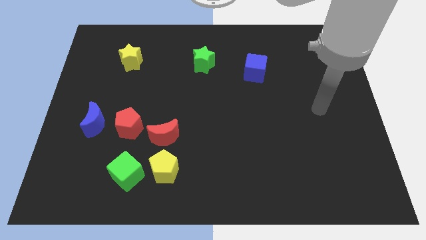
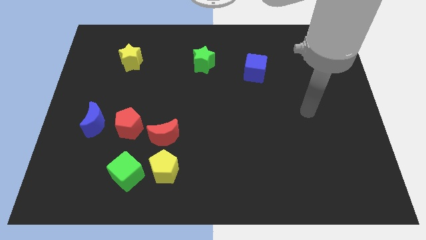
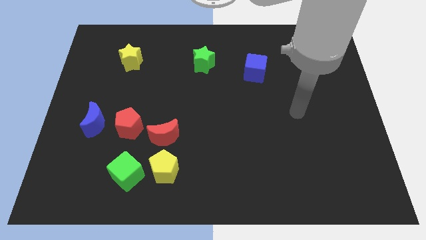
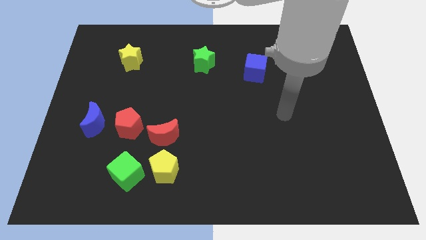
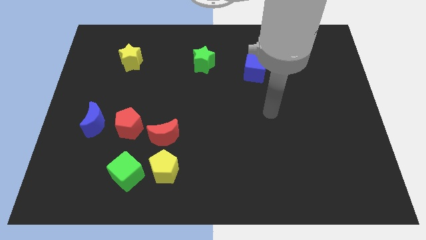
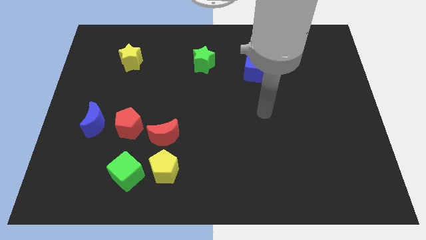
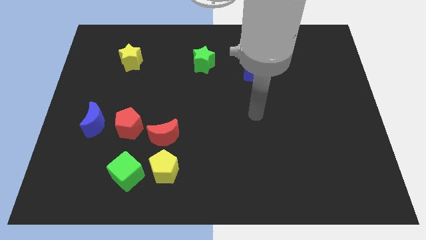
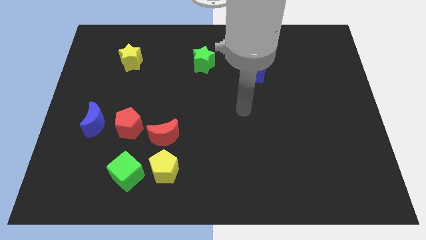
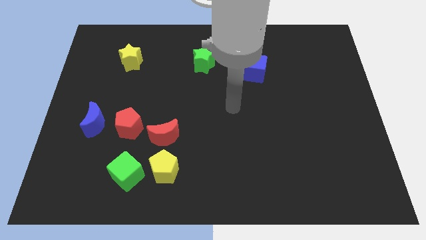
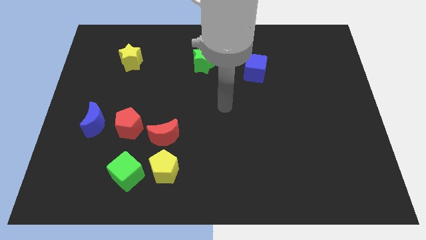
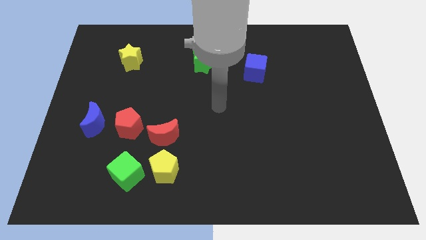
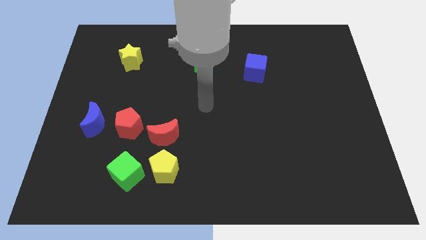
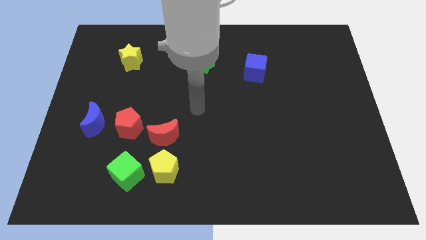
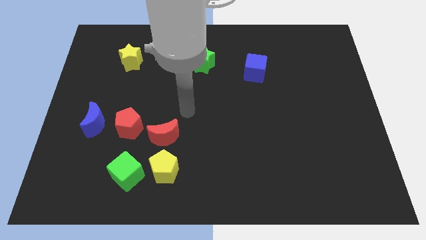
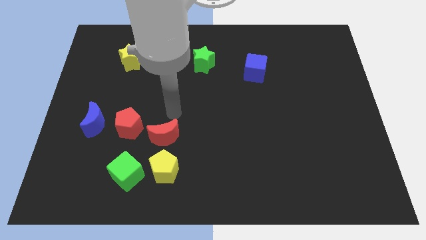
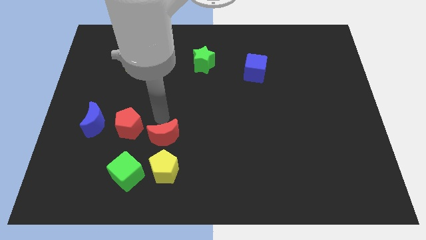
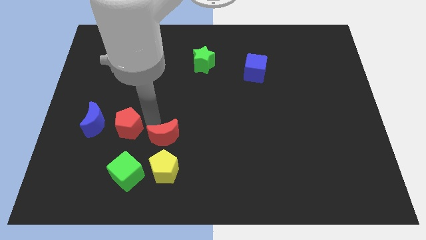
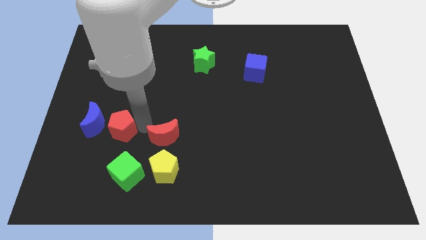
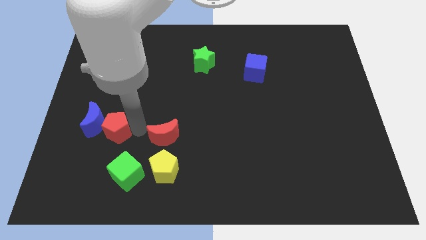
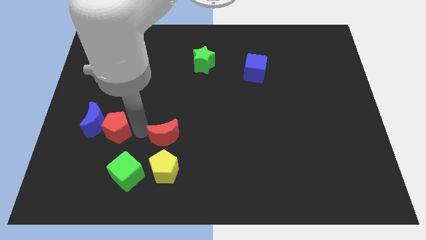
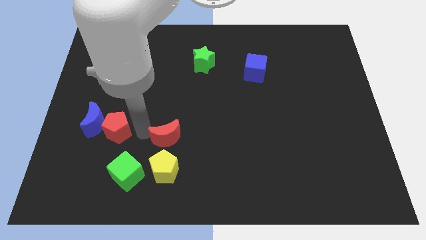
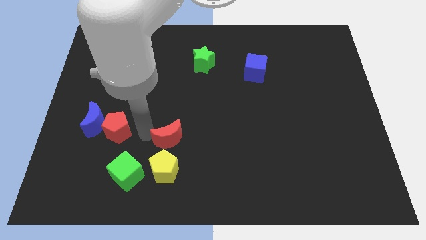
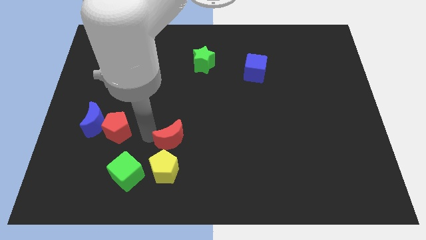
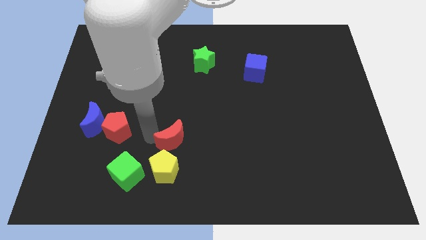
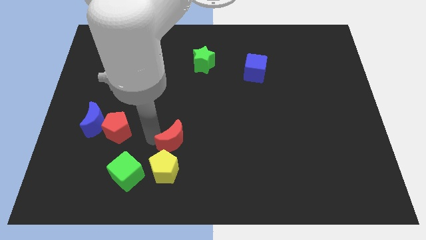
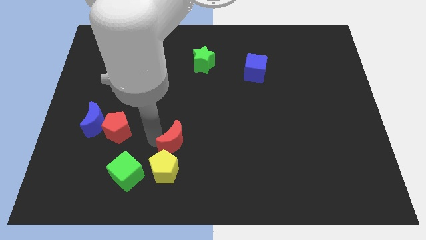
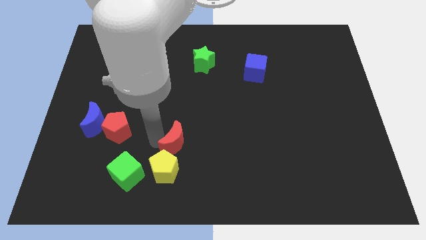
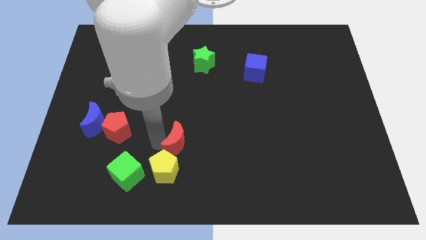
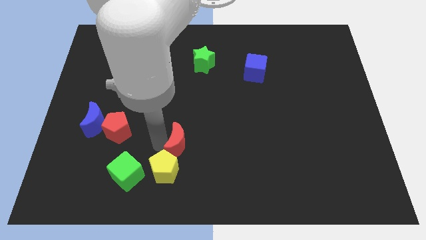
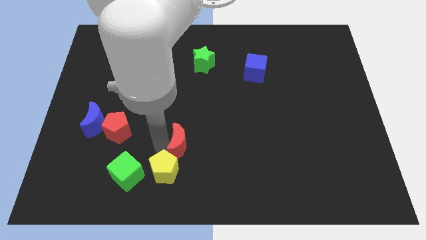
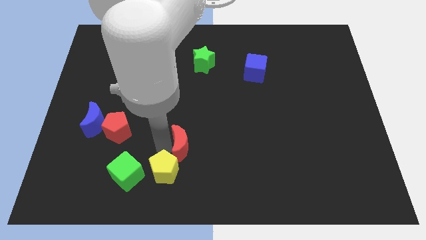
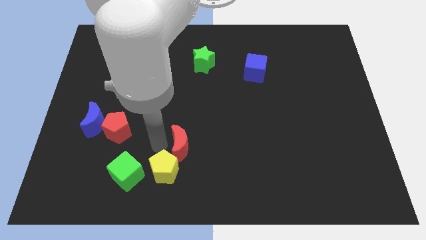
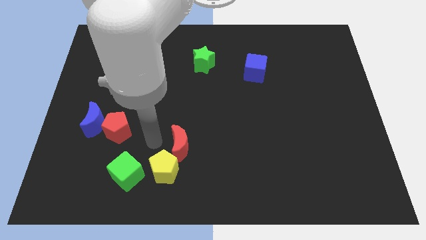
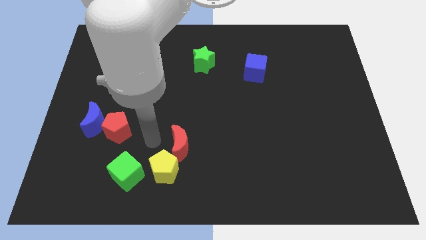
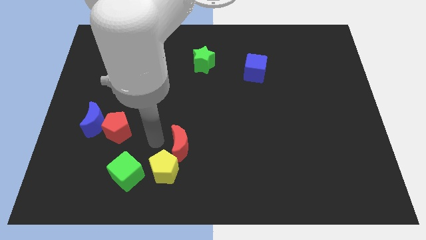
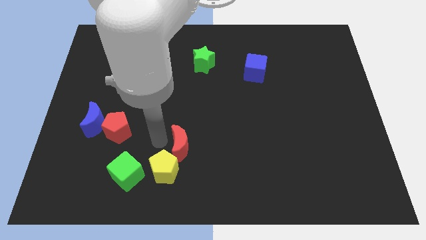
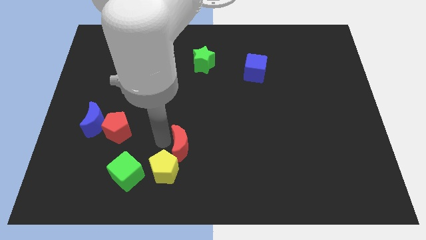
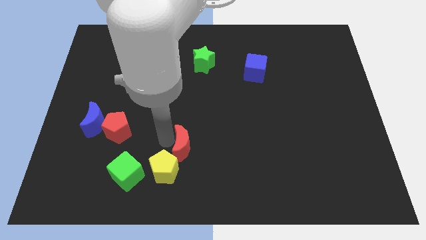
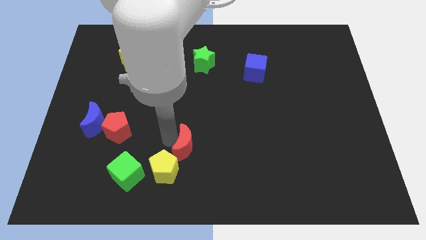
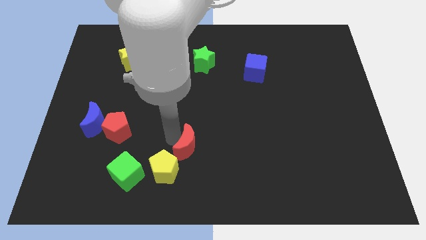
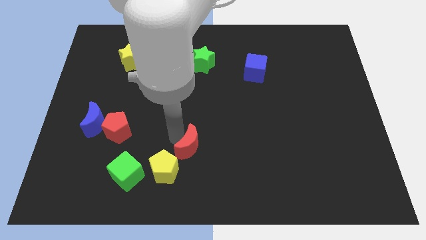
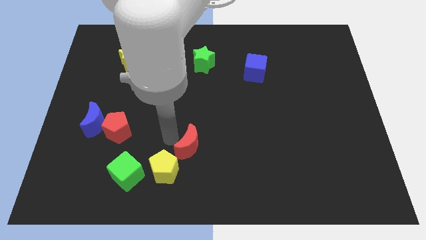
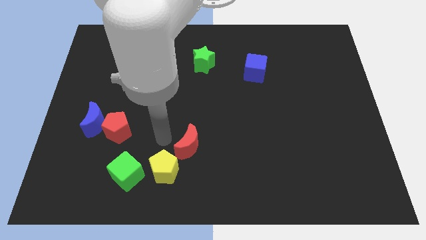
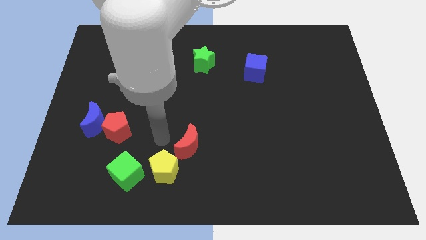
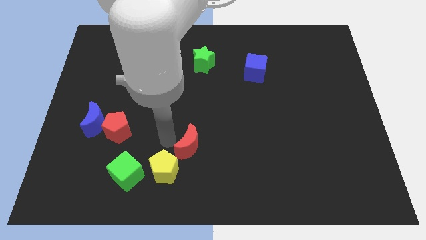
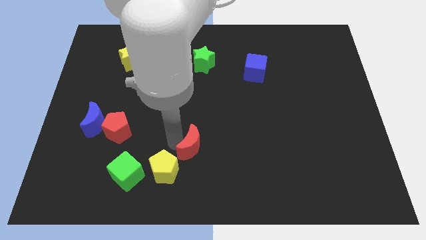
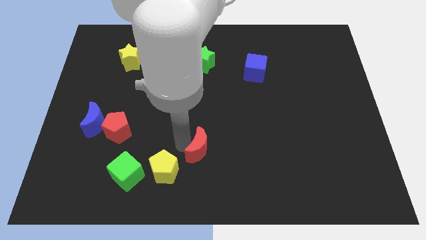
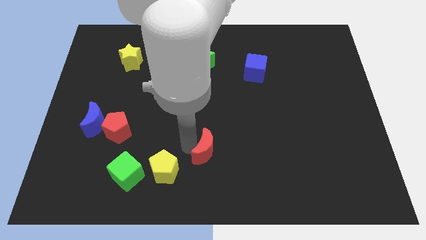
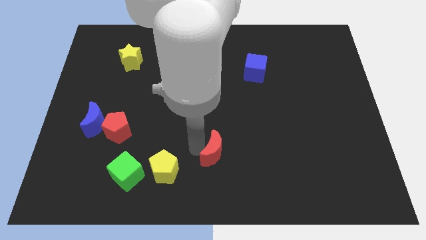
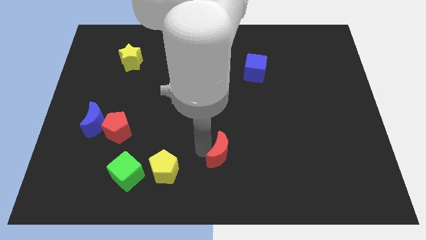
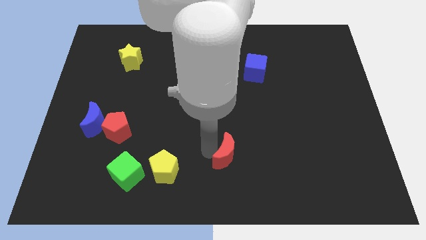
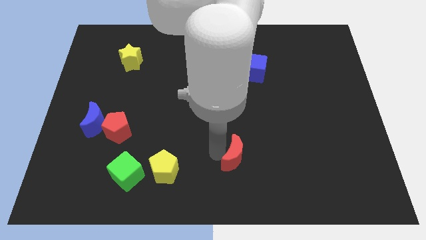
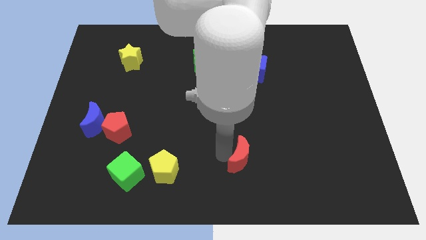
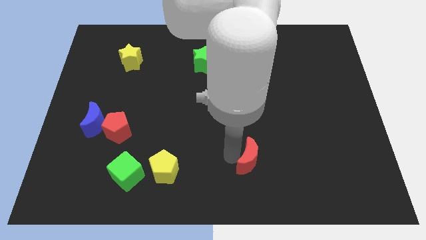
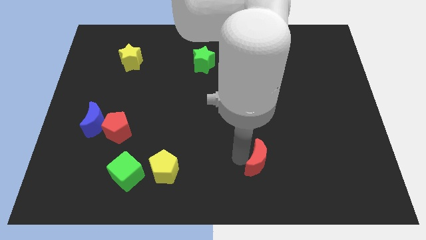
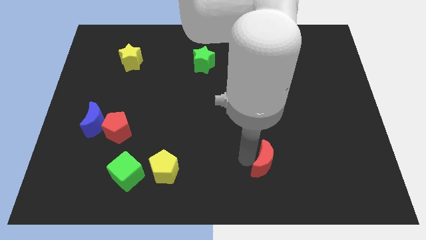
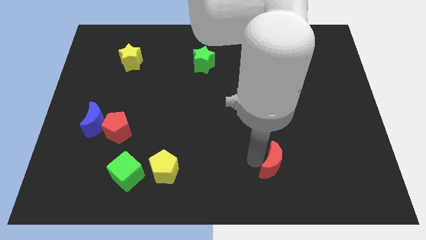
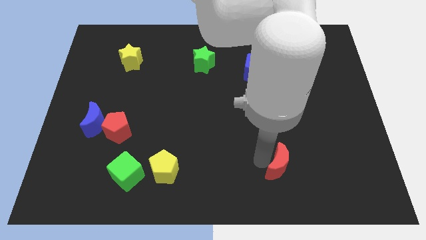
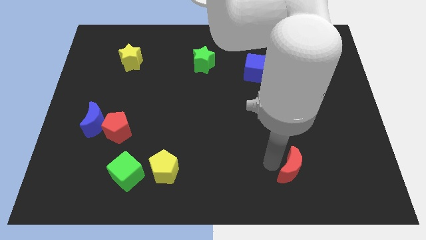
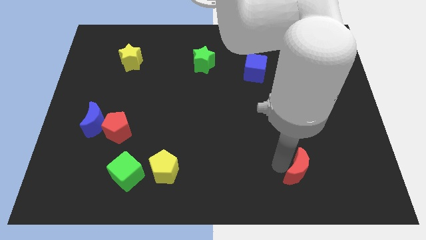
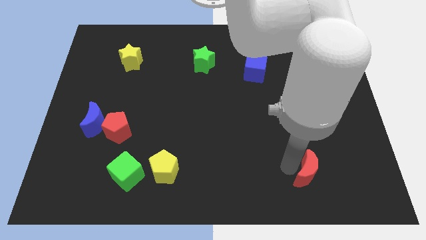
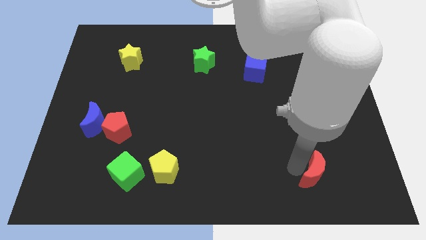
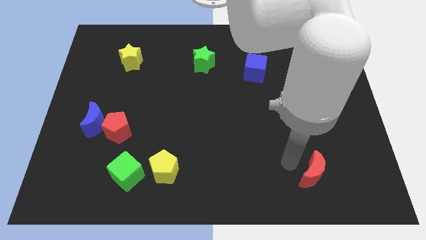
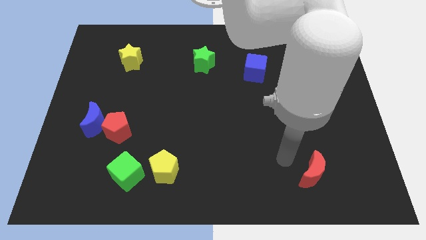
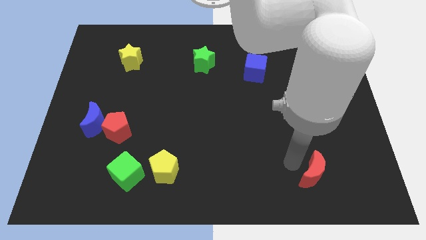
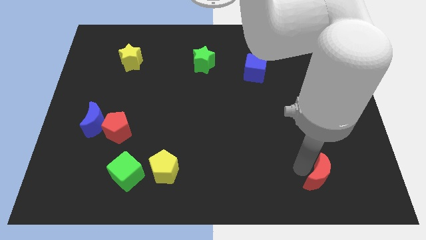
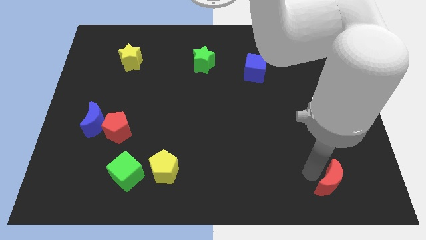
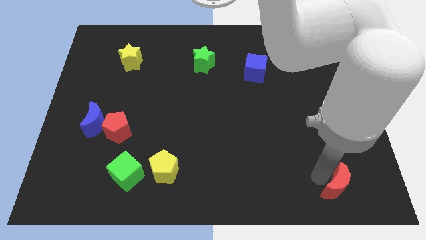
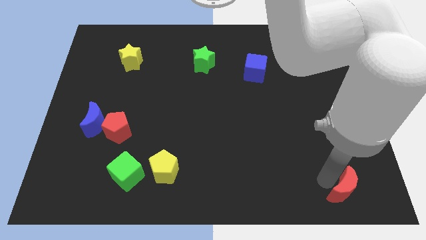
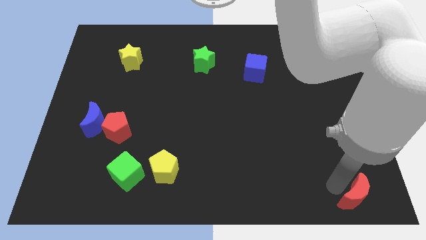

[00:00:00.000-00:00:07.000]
push the red moon to the bottom right corner
